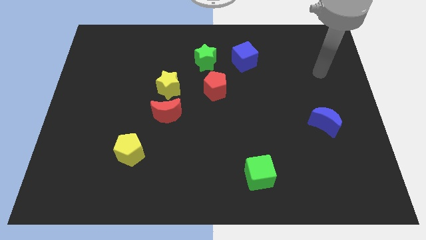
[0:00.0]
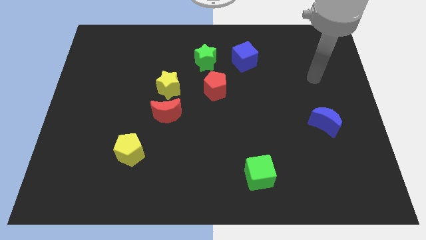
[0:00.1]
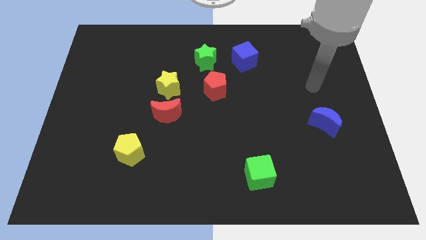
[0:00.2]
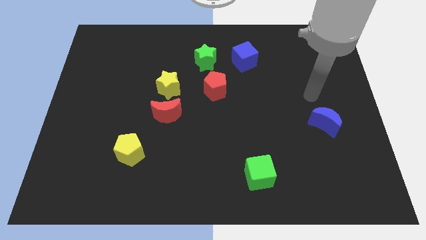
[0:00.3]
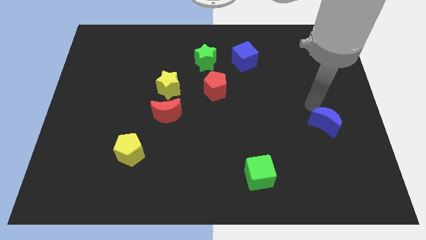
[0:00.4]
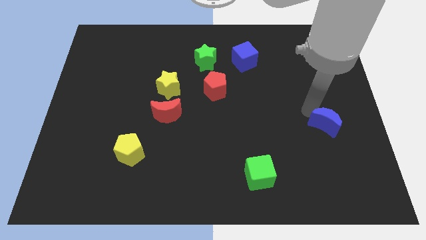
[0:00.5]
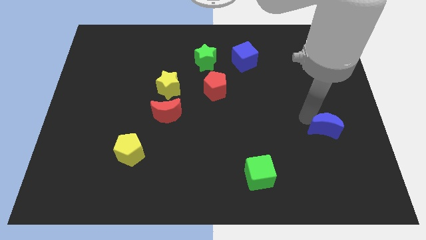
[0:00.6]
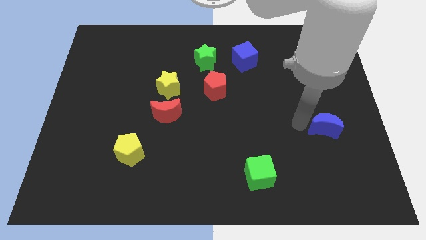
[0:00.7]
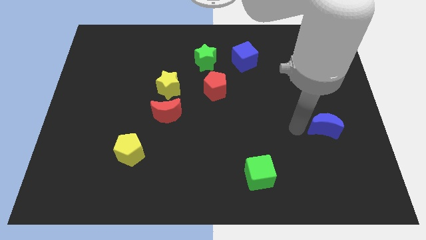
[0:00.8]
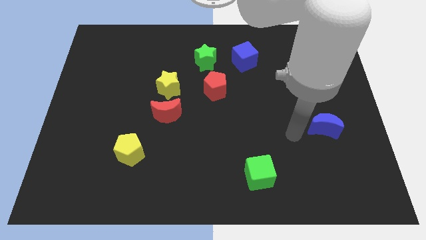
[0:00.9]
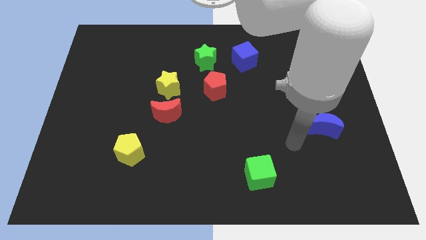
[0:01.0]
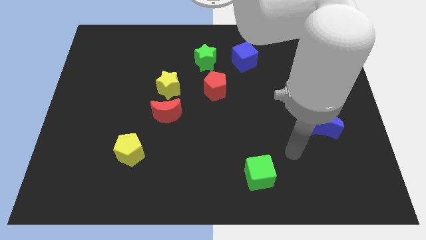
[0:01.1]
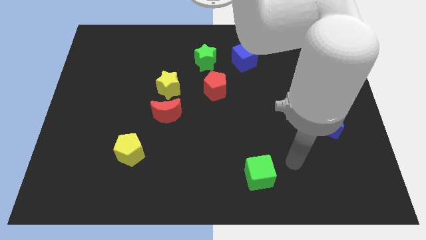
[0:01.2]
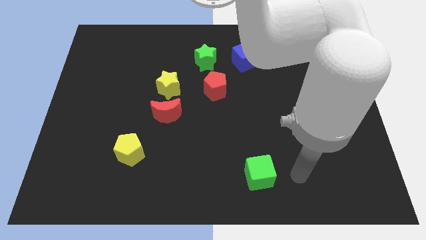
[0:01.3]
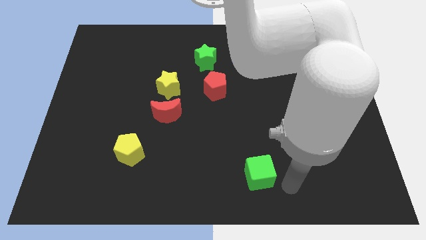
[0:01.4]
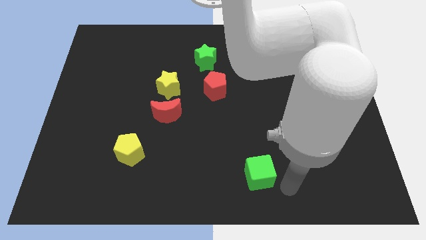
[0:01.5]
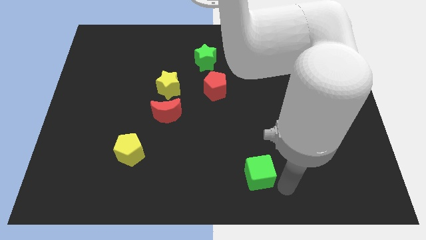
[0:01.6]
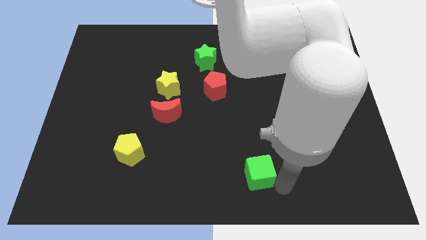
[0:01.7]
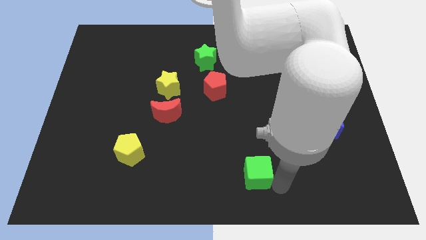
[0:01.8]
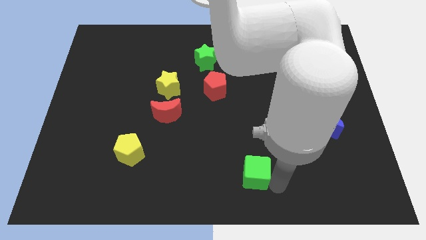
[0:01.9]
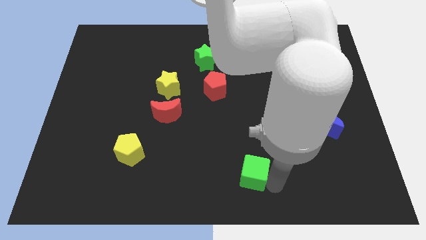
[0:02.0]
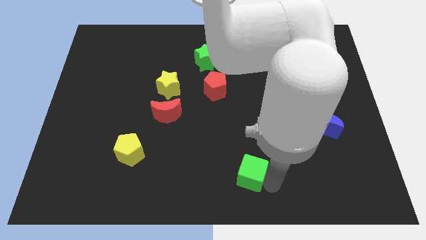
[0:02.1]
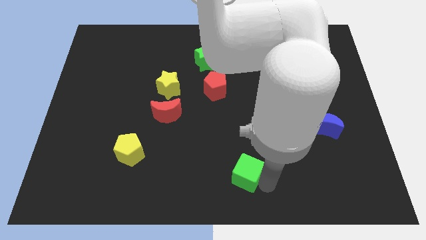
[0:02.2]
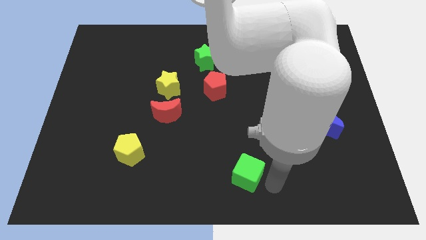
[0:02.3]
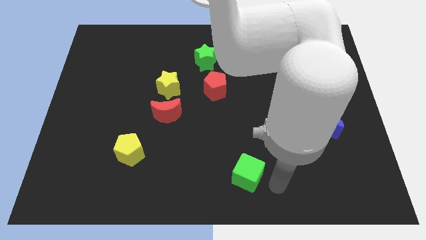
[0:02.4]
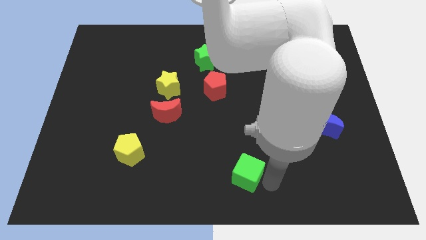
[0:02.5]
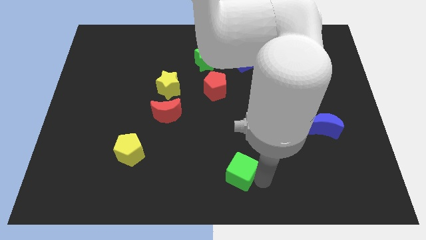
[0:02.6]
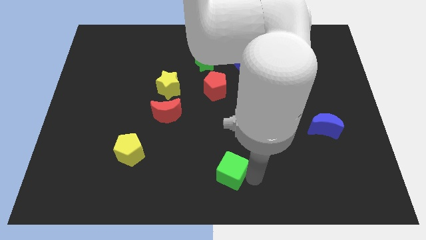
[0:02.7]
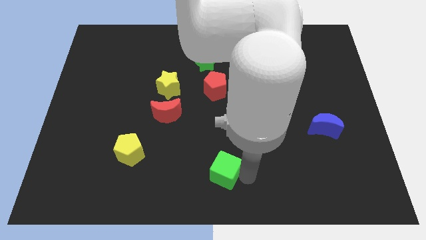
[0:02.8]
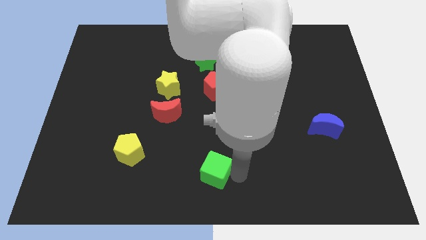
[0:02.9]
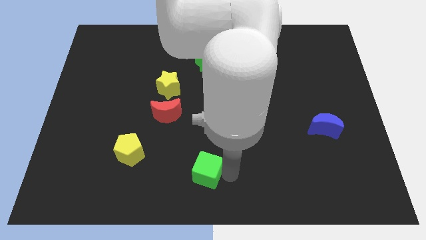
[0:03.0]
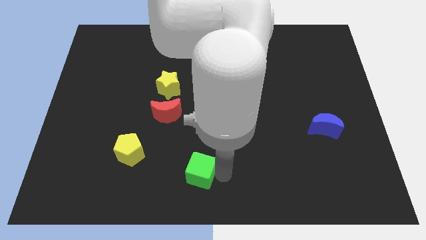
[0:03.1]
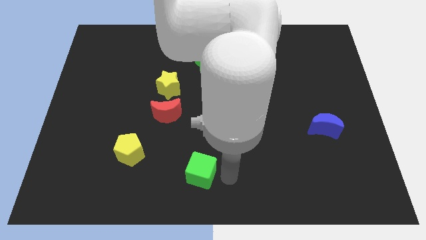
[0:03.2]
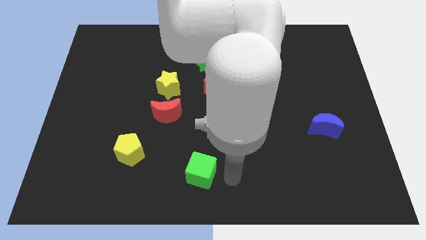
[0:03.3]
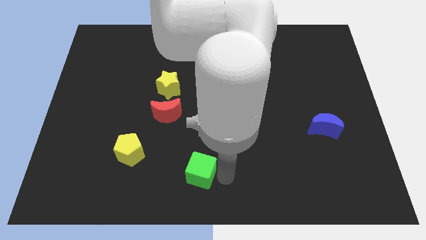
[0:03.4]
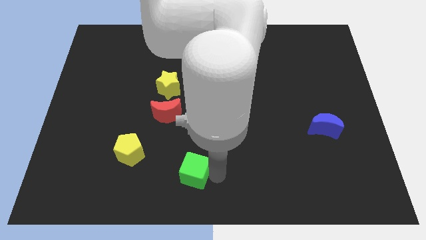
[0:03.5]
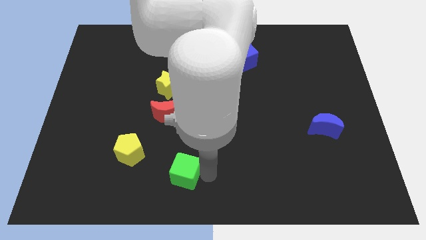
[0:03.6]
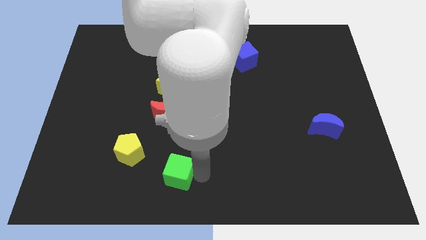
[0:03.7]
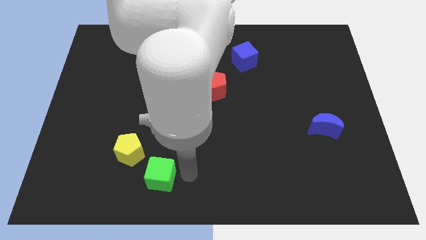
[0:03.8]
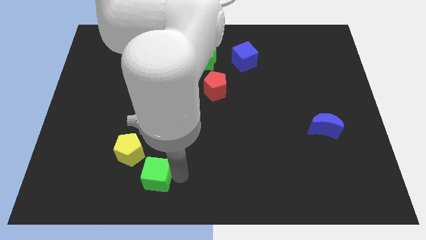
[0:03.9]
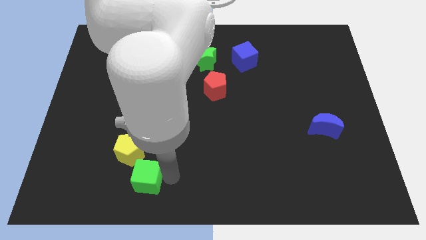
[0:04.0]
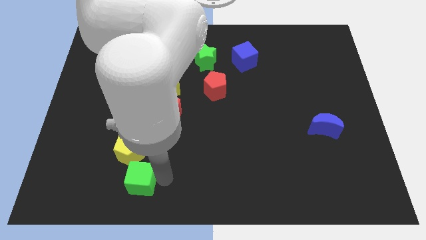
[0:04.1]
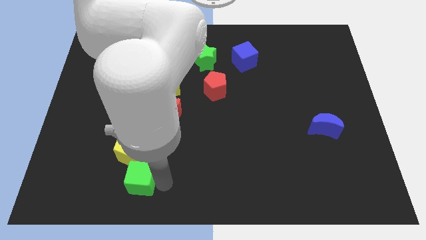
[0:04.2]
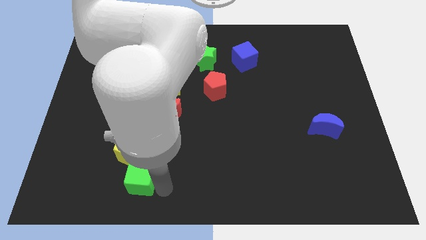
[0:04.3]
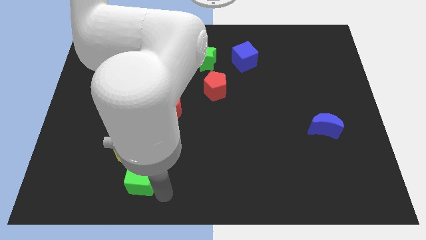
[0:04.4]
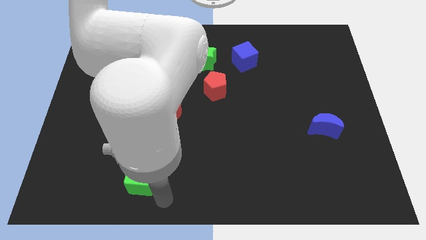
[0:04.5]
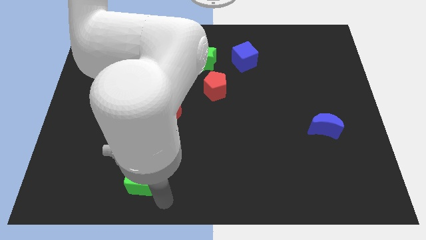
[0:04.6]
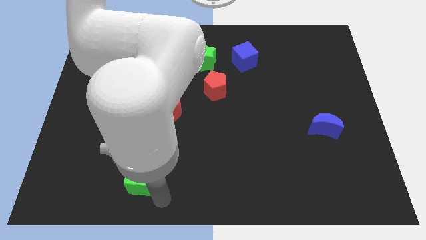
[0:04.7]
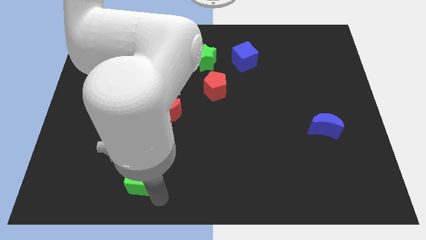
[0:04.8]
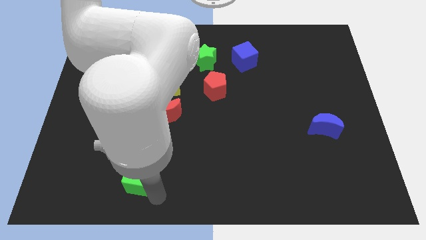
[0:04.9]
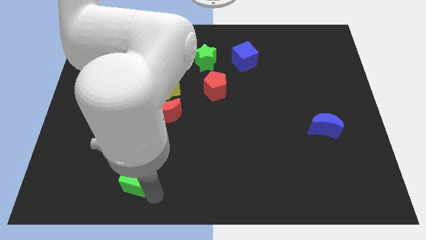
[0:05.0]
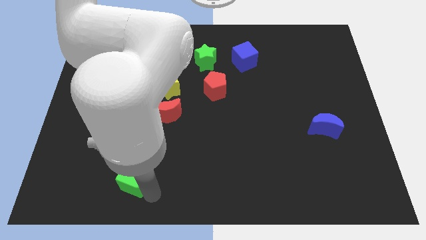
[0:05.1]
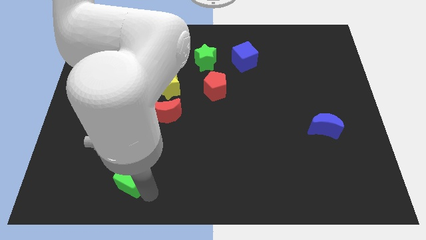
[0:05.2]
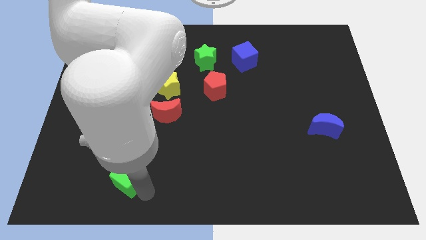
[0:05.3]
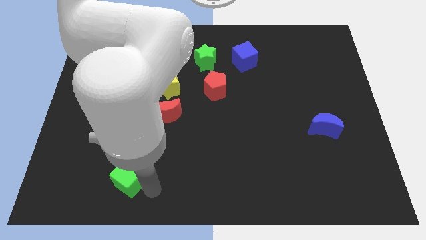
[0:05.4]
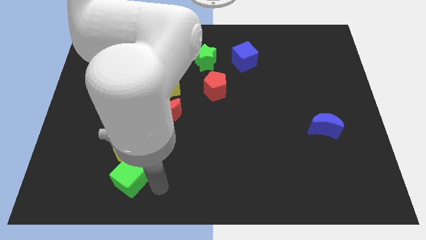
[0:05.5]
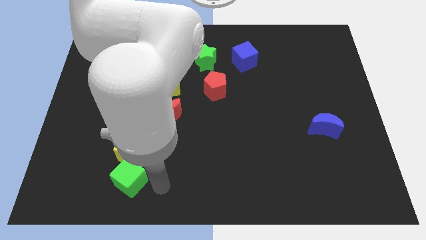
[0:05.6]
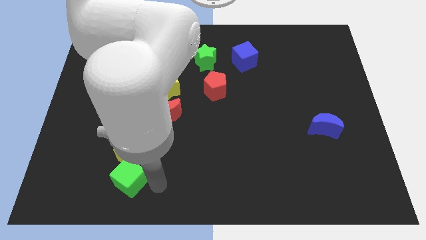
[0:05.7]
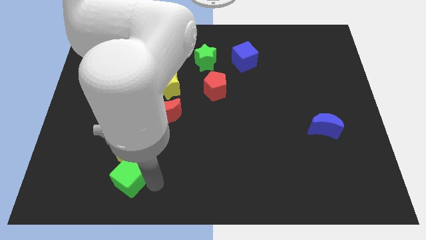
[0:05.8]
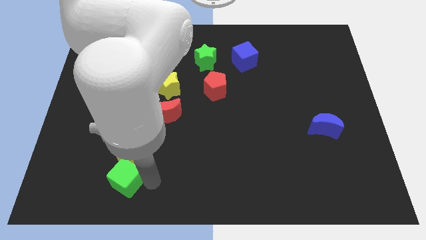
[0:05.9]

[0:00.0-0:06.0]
put the green cube to the bottom left side of the yellow pentagon

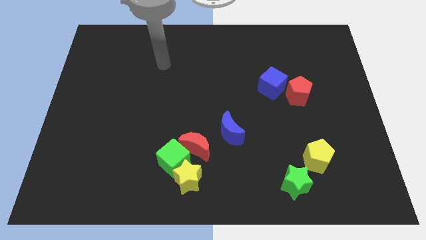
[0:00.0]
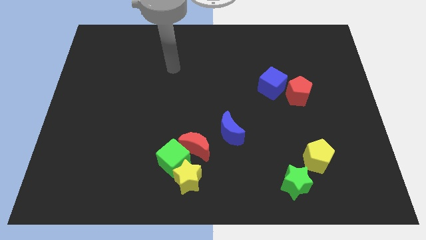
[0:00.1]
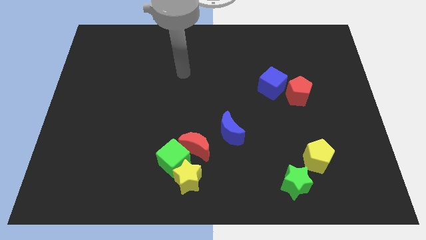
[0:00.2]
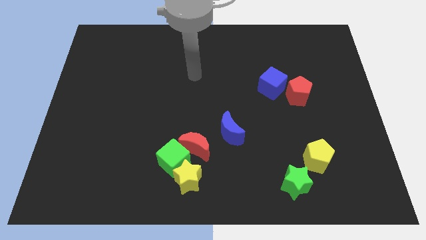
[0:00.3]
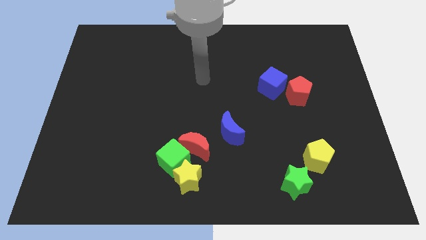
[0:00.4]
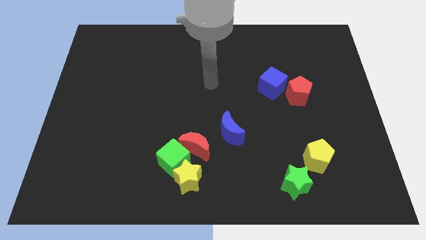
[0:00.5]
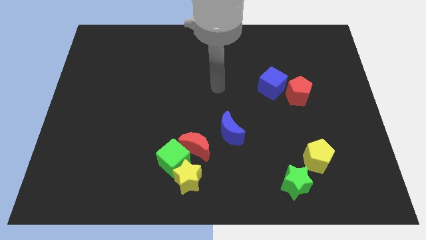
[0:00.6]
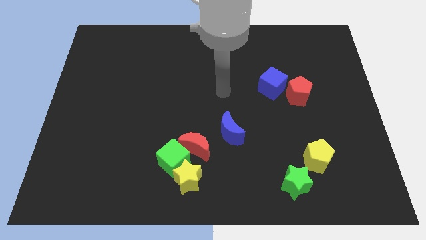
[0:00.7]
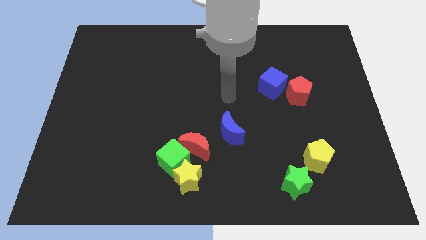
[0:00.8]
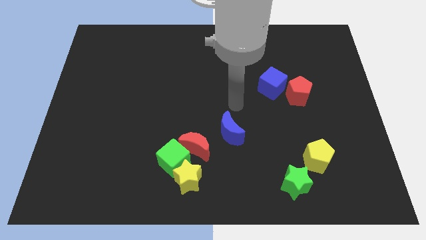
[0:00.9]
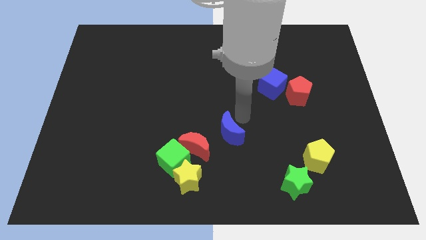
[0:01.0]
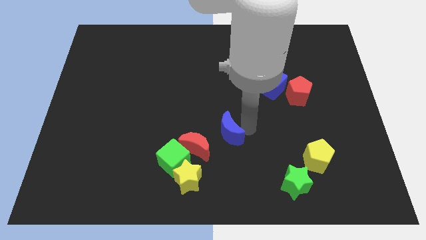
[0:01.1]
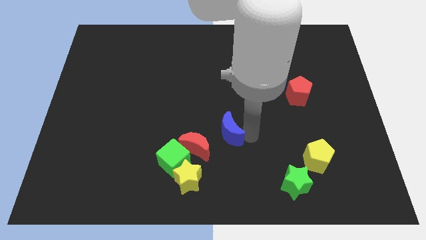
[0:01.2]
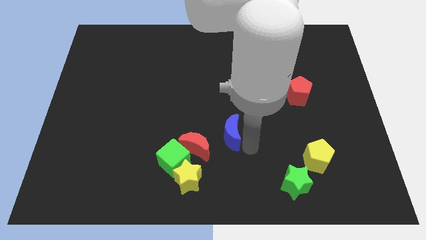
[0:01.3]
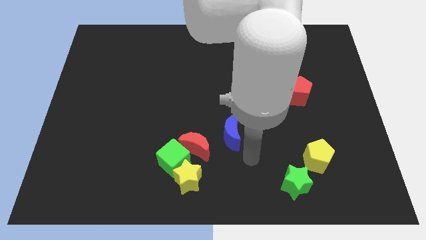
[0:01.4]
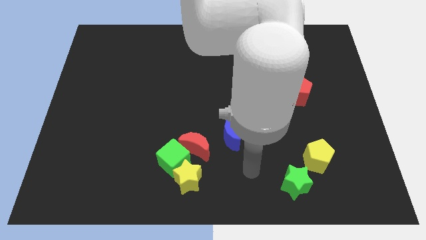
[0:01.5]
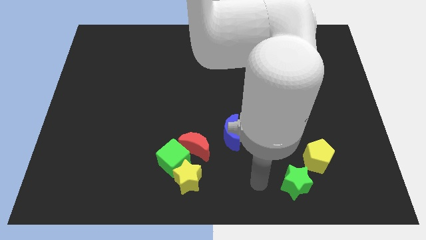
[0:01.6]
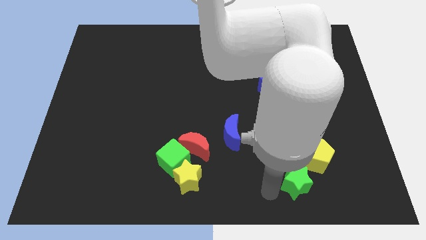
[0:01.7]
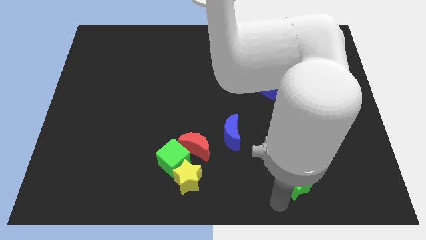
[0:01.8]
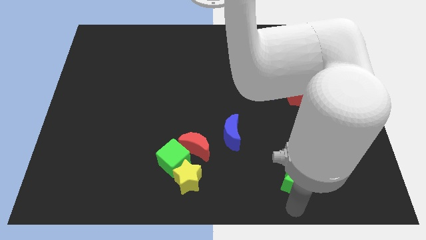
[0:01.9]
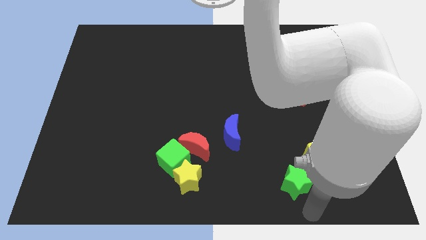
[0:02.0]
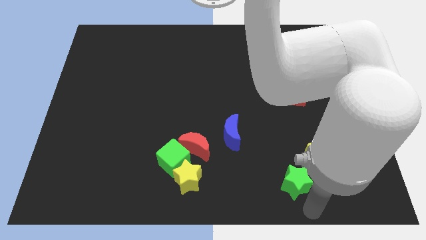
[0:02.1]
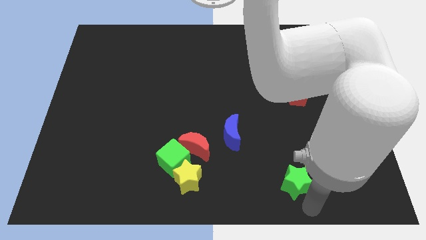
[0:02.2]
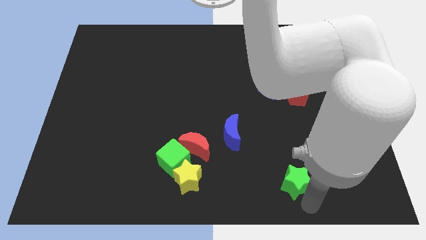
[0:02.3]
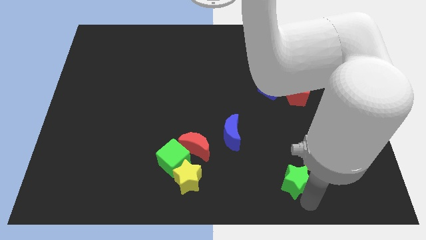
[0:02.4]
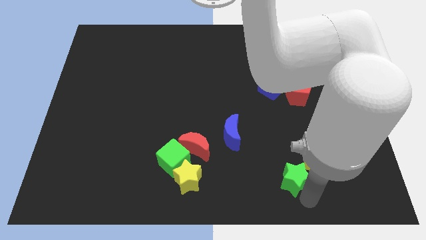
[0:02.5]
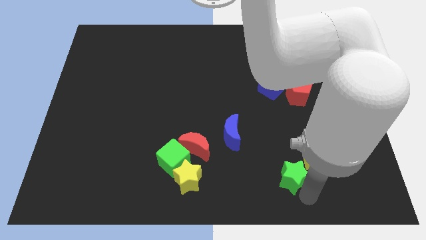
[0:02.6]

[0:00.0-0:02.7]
put the green star to the left of the yellow pentagon
